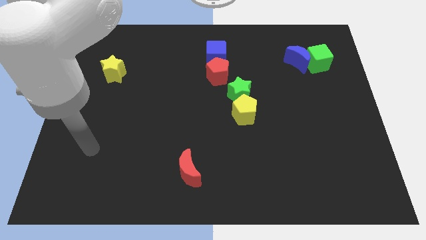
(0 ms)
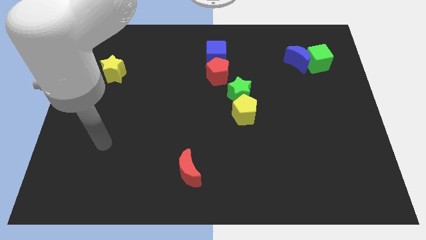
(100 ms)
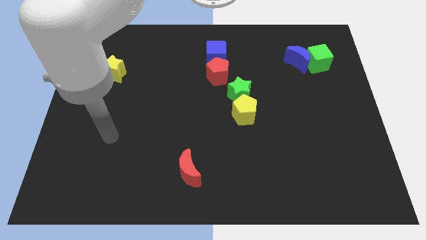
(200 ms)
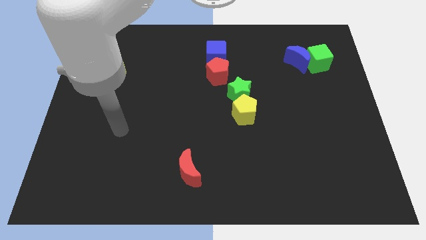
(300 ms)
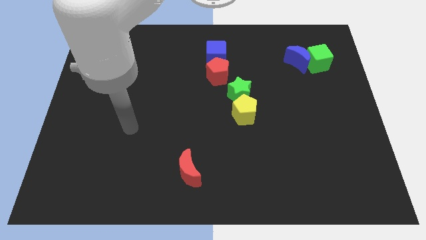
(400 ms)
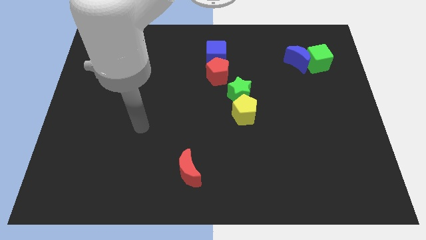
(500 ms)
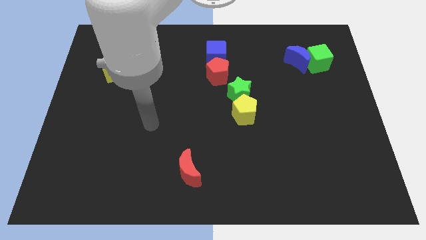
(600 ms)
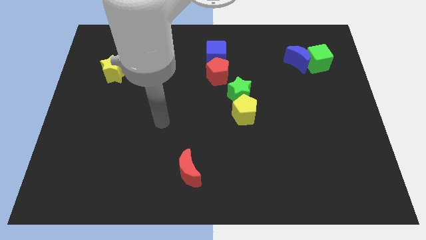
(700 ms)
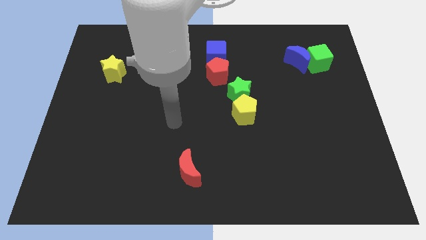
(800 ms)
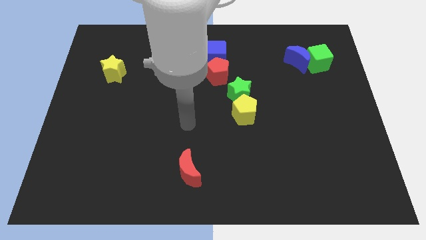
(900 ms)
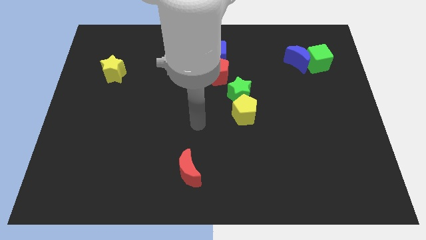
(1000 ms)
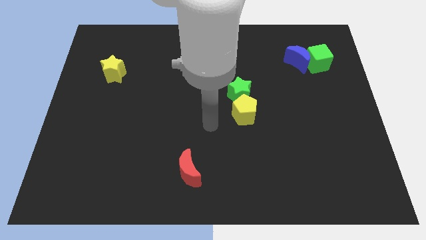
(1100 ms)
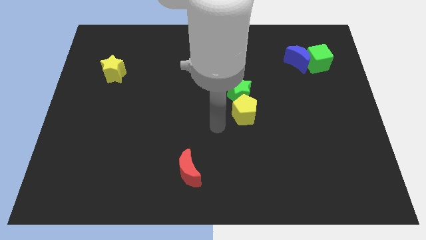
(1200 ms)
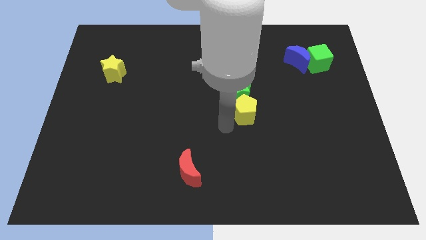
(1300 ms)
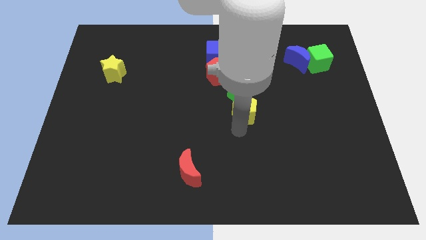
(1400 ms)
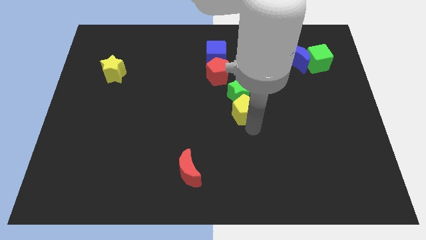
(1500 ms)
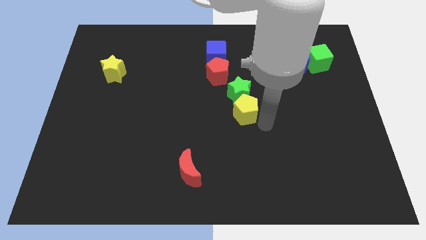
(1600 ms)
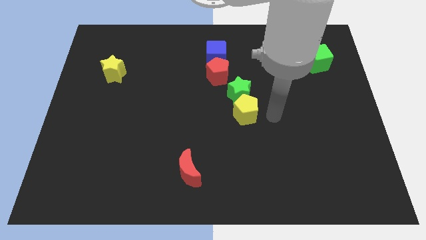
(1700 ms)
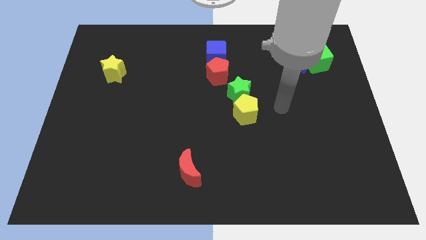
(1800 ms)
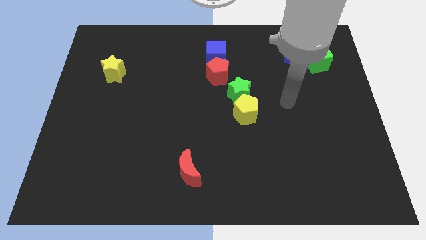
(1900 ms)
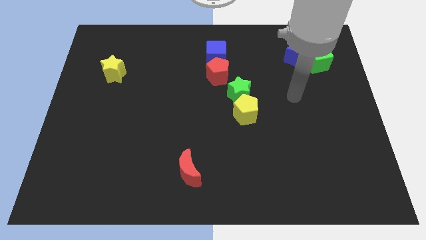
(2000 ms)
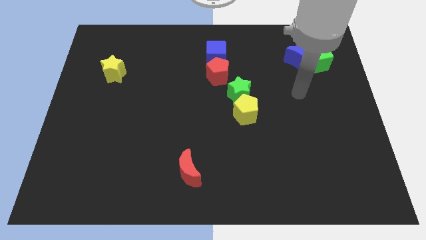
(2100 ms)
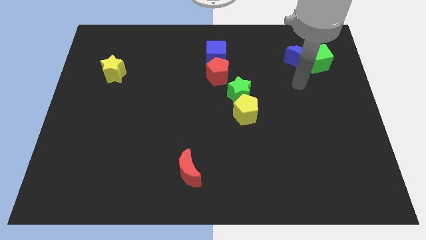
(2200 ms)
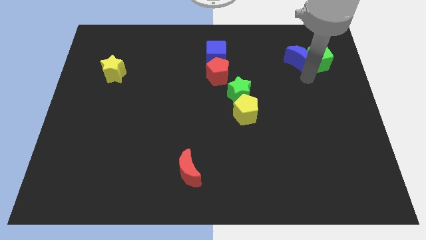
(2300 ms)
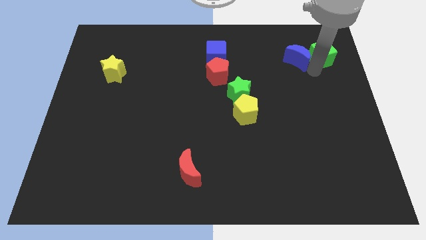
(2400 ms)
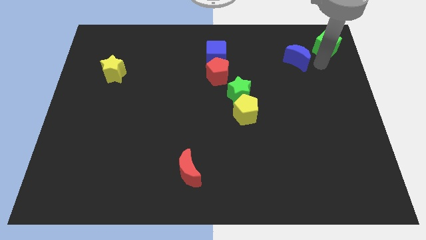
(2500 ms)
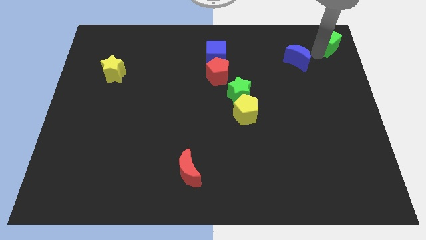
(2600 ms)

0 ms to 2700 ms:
separate the blue moon from the green cube

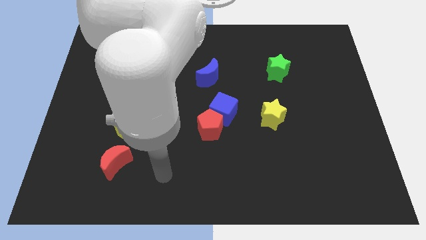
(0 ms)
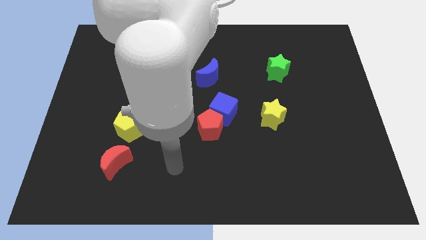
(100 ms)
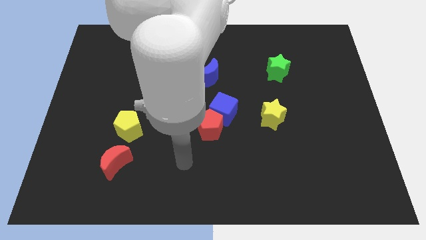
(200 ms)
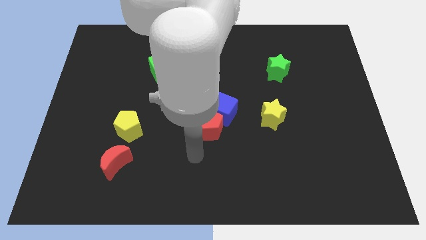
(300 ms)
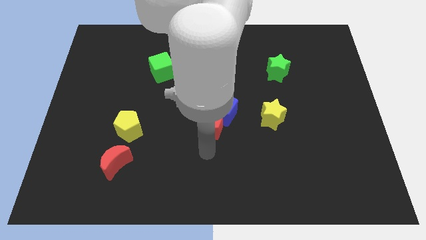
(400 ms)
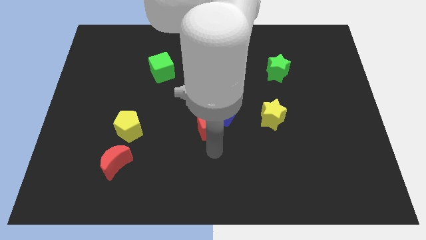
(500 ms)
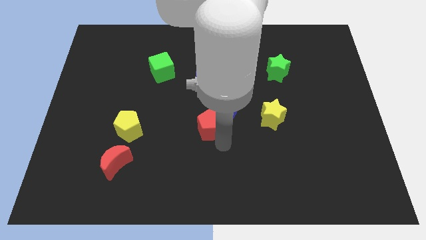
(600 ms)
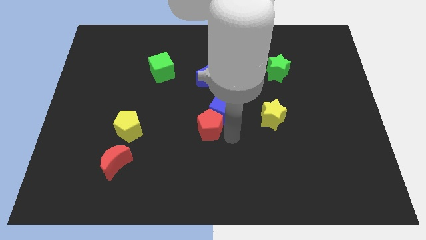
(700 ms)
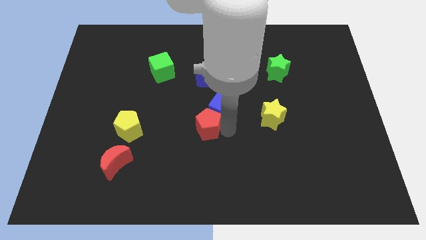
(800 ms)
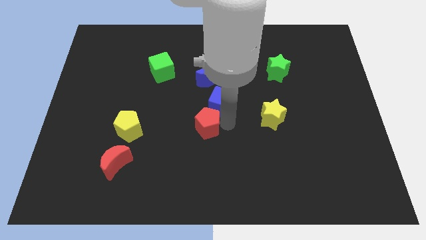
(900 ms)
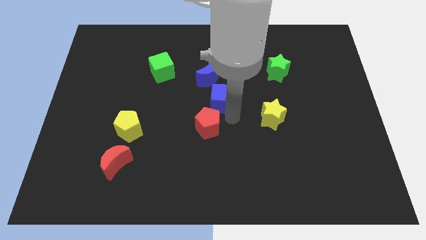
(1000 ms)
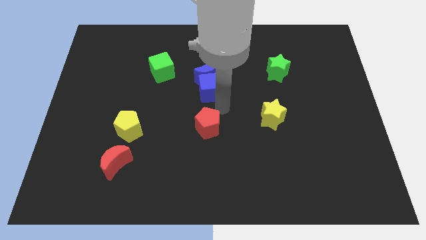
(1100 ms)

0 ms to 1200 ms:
move the red pentagon away from the blue cube

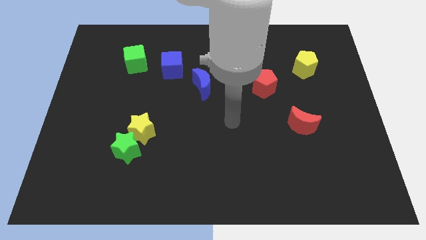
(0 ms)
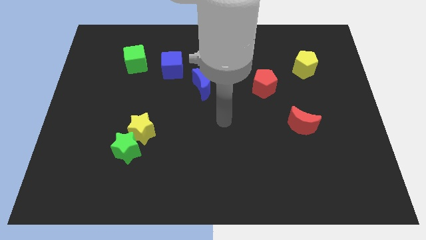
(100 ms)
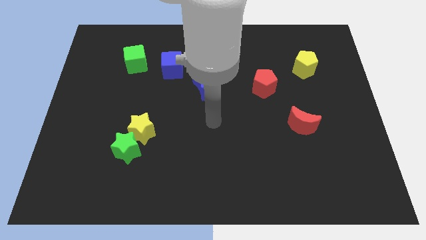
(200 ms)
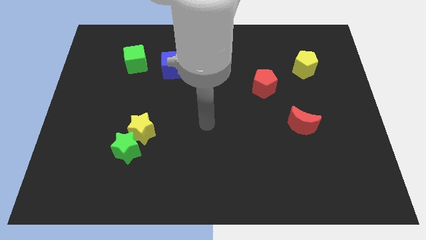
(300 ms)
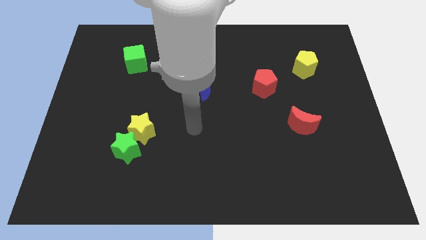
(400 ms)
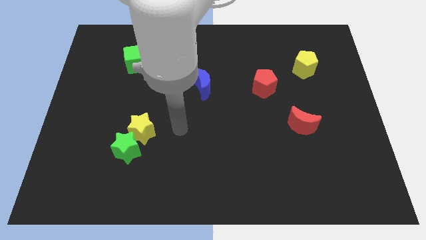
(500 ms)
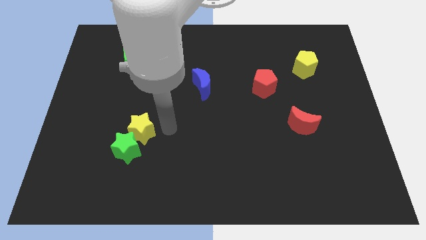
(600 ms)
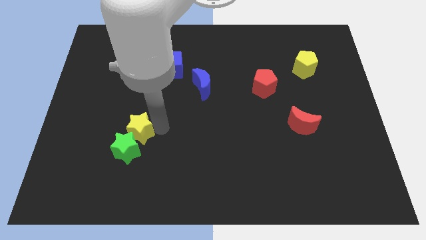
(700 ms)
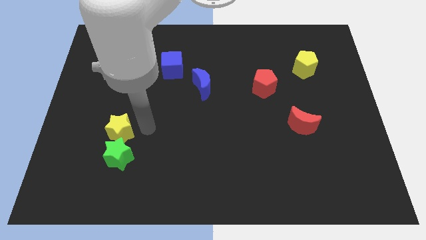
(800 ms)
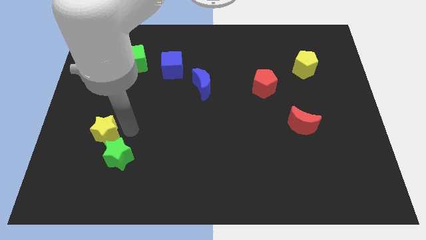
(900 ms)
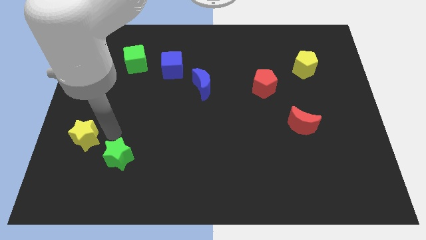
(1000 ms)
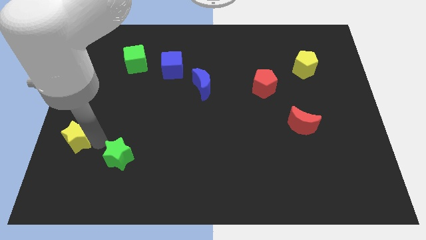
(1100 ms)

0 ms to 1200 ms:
pull the green star apart from the yellow star

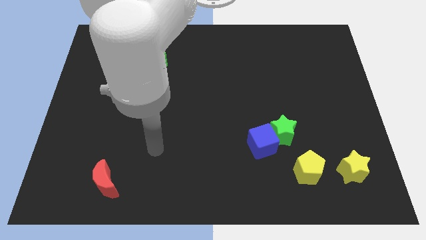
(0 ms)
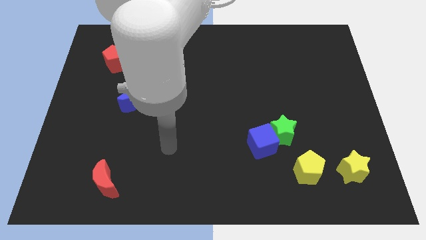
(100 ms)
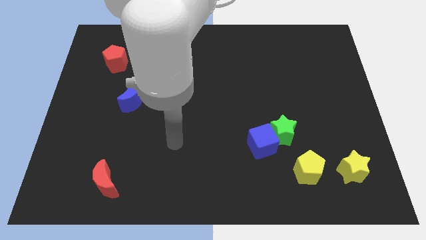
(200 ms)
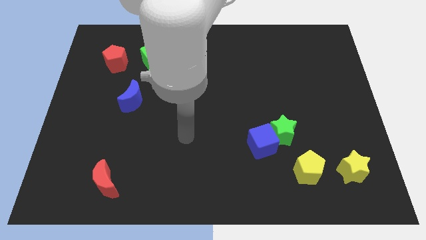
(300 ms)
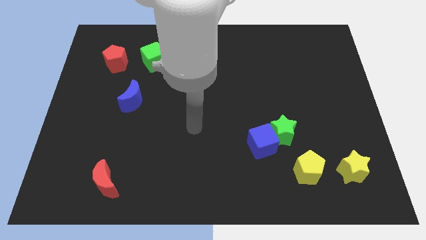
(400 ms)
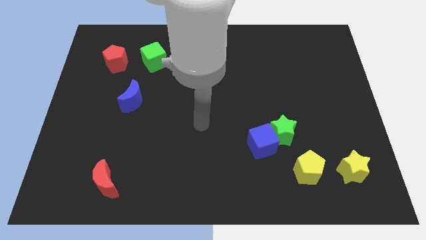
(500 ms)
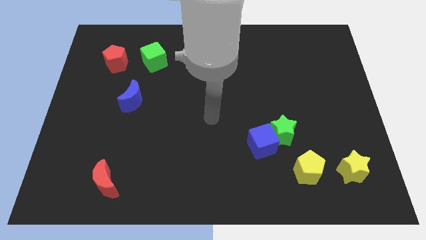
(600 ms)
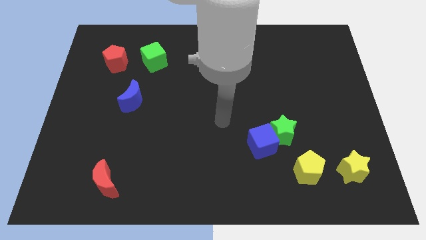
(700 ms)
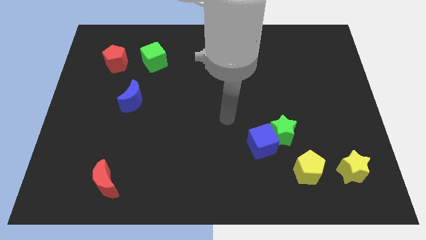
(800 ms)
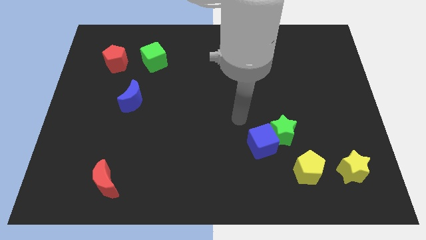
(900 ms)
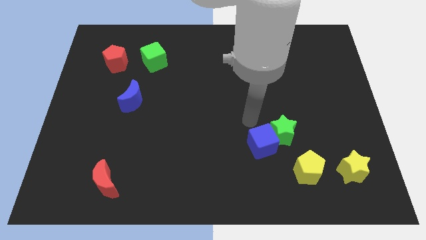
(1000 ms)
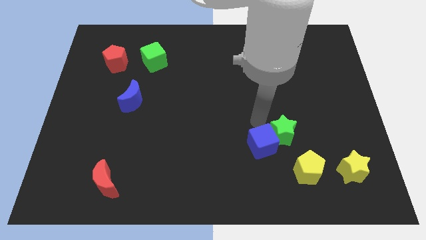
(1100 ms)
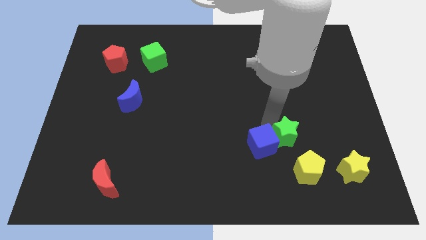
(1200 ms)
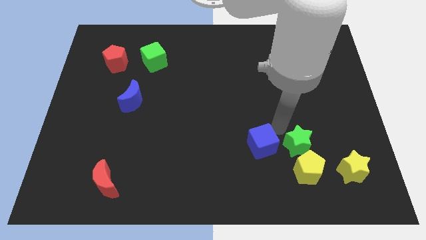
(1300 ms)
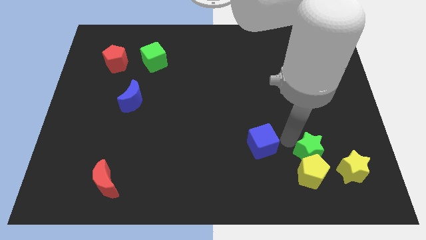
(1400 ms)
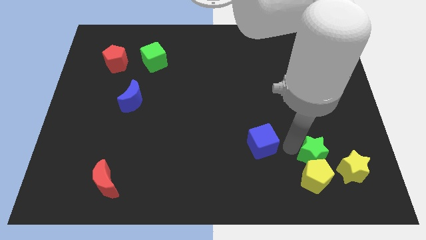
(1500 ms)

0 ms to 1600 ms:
pull the blue cube apart from the green star

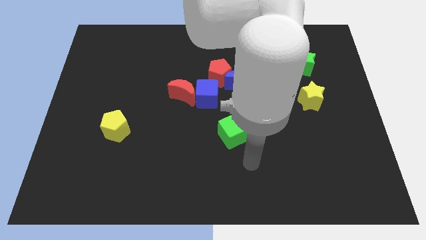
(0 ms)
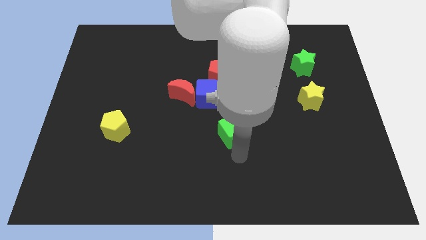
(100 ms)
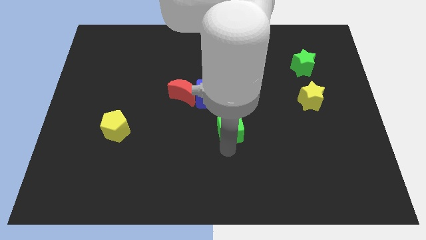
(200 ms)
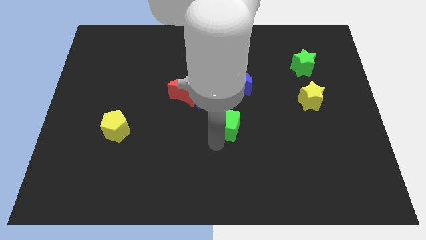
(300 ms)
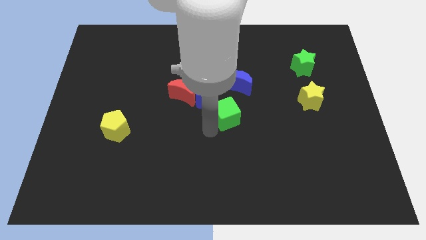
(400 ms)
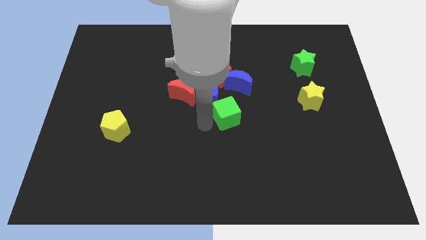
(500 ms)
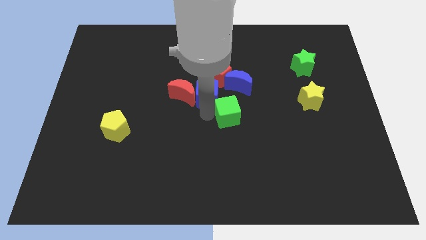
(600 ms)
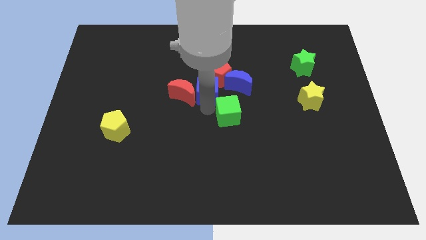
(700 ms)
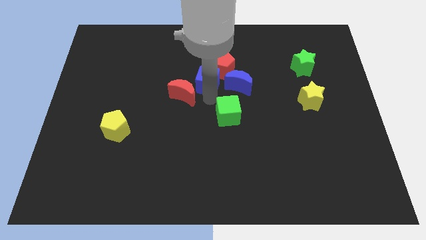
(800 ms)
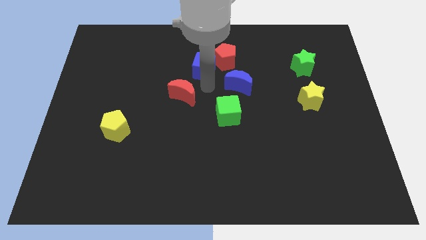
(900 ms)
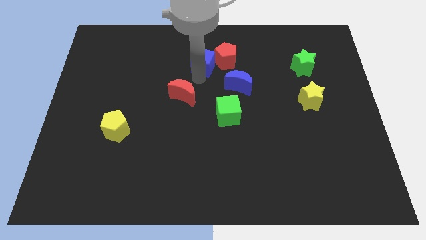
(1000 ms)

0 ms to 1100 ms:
move the red moon away from the blue cube

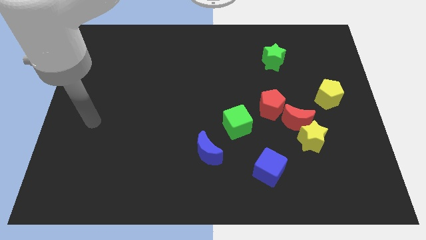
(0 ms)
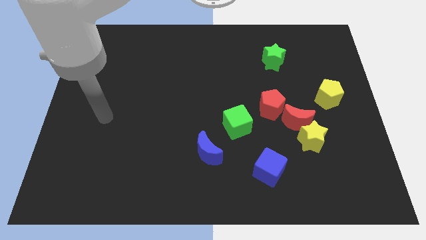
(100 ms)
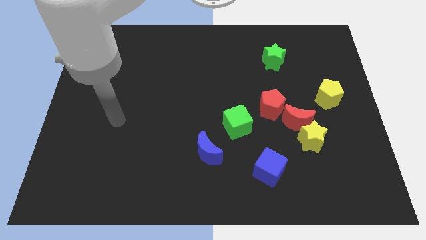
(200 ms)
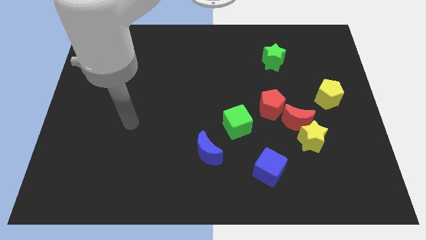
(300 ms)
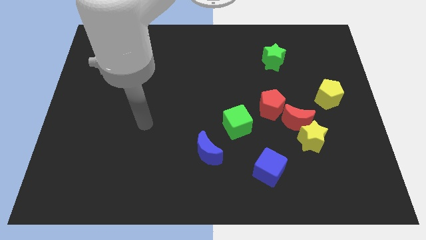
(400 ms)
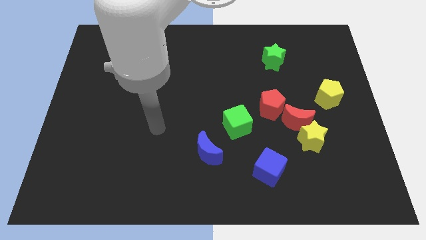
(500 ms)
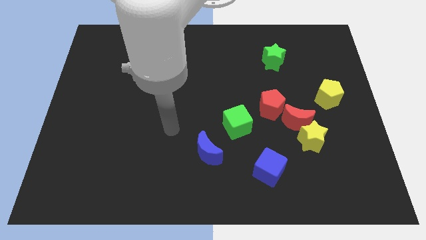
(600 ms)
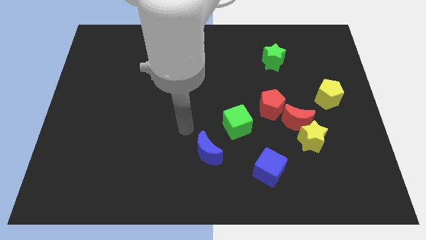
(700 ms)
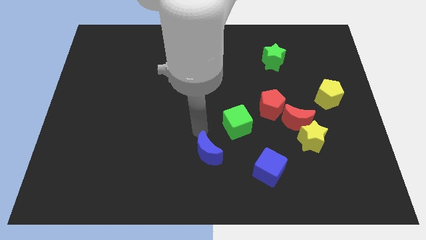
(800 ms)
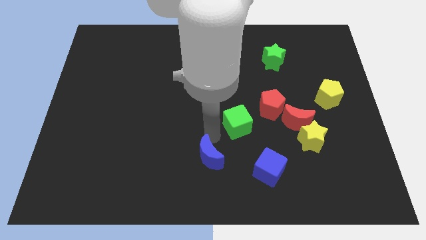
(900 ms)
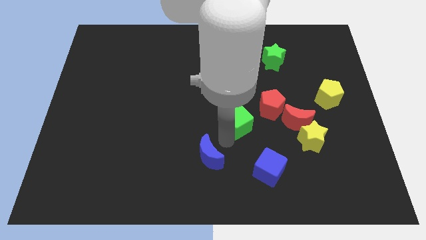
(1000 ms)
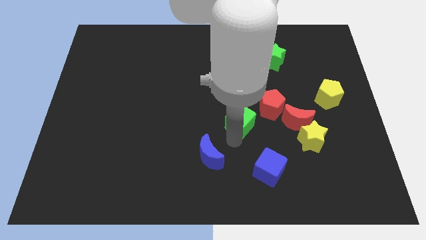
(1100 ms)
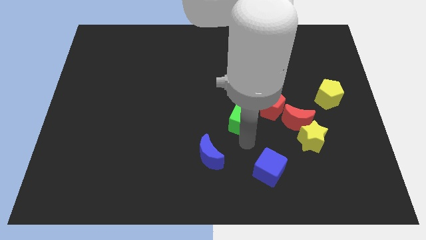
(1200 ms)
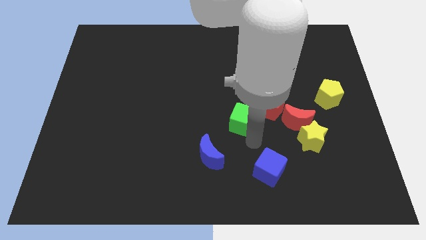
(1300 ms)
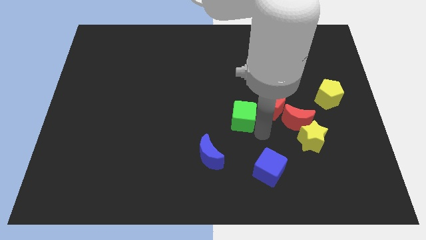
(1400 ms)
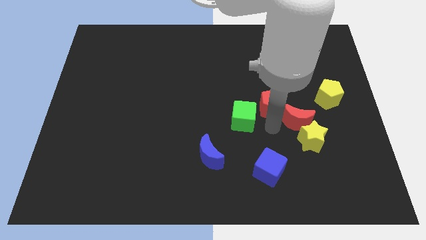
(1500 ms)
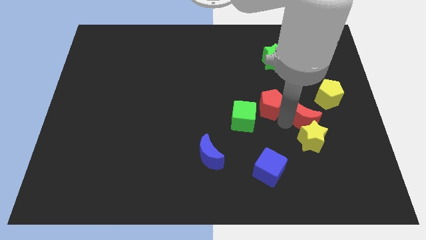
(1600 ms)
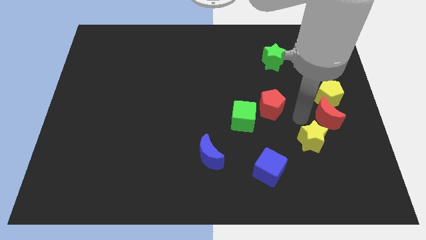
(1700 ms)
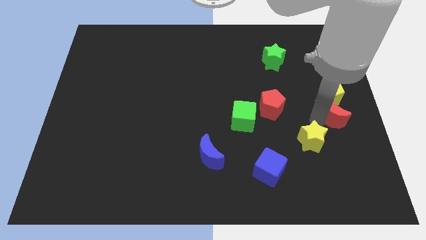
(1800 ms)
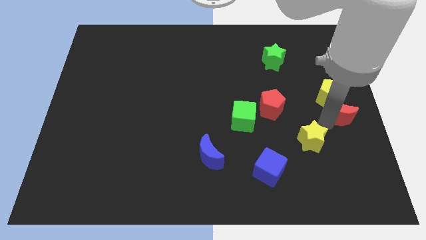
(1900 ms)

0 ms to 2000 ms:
pull the yellow star apart from the red moon
